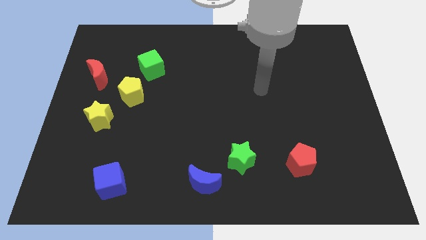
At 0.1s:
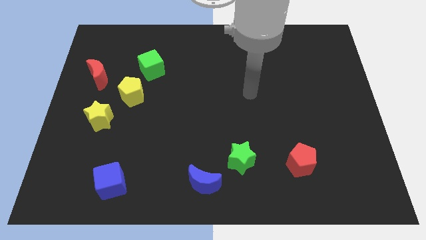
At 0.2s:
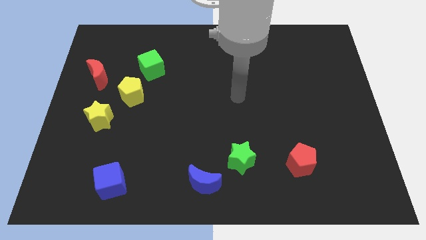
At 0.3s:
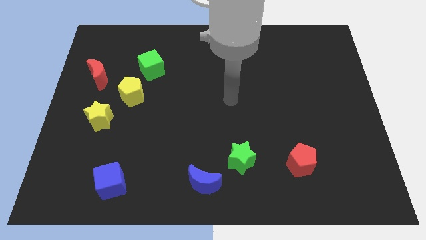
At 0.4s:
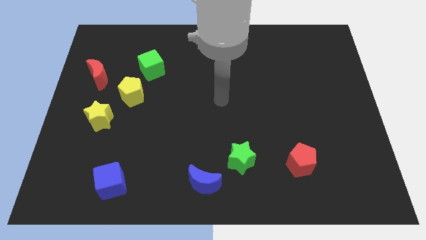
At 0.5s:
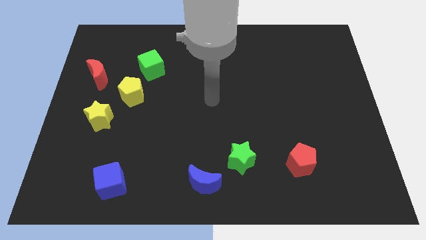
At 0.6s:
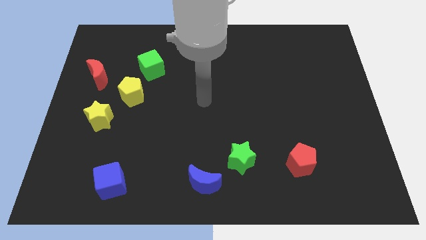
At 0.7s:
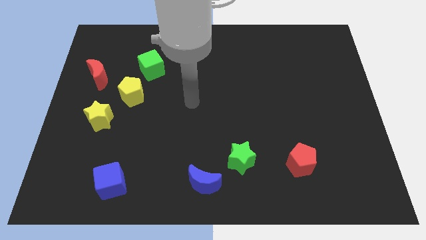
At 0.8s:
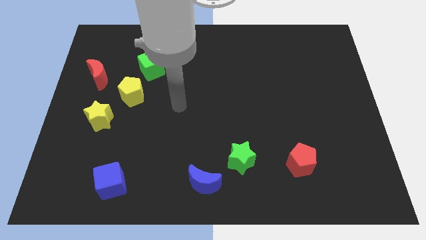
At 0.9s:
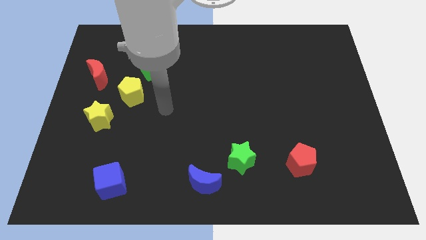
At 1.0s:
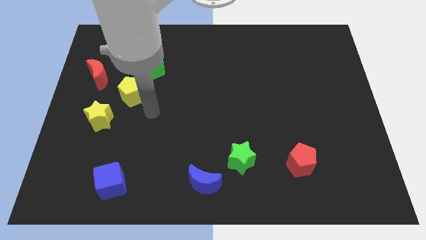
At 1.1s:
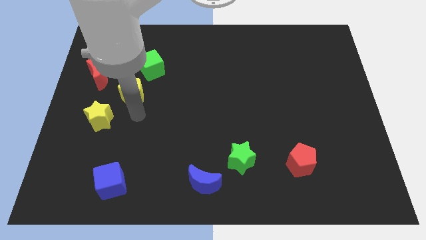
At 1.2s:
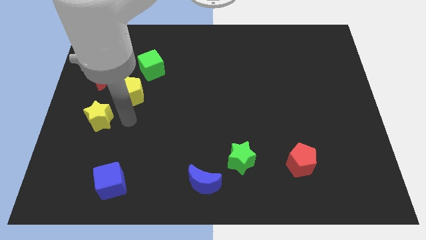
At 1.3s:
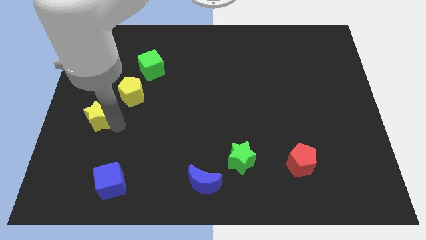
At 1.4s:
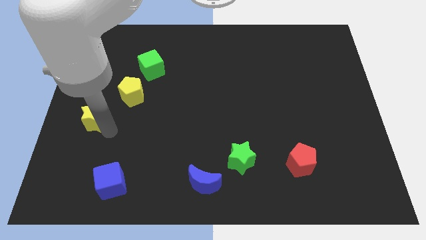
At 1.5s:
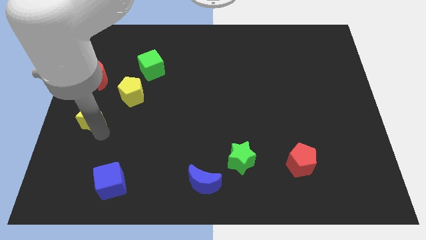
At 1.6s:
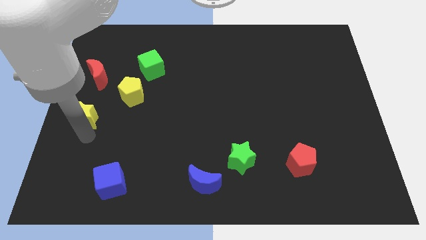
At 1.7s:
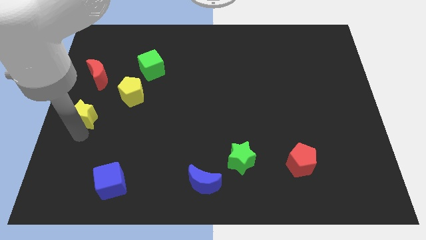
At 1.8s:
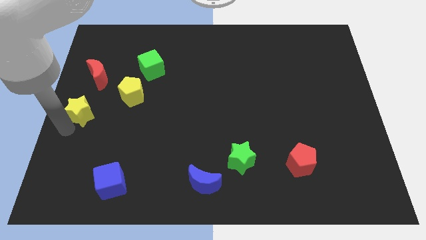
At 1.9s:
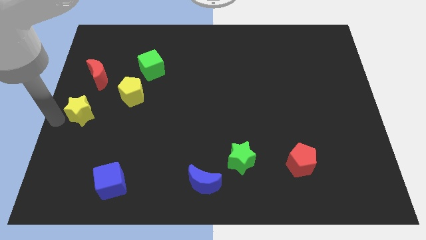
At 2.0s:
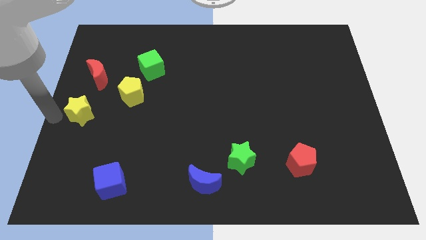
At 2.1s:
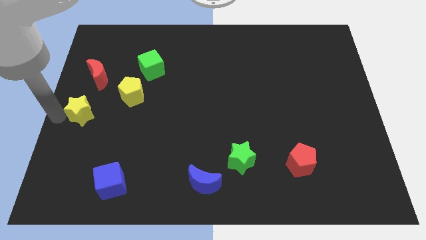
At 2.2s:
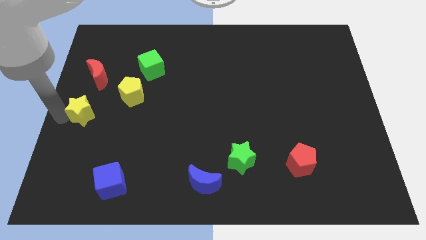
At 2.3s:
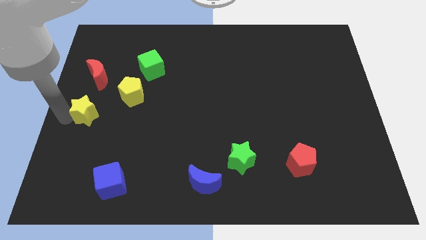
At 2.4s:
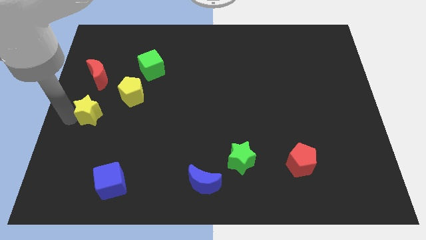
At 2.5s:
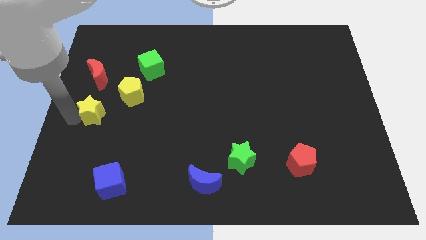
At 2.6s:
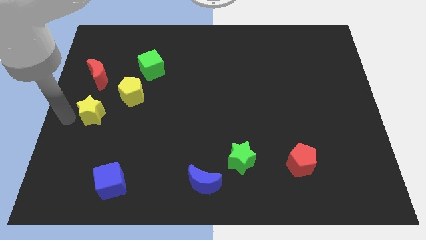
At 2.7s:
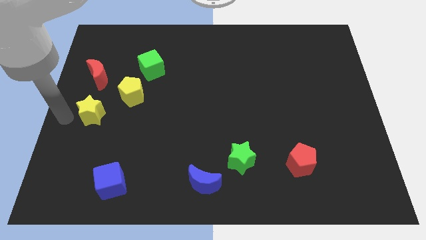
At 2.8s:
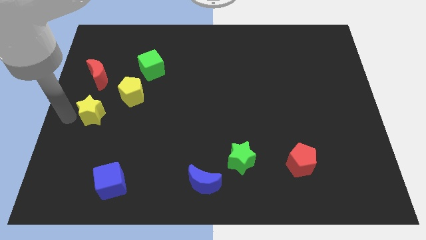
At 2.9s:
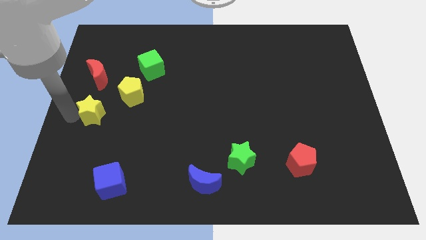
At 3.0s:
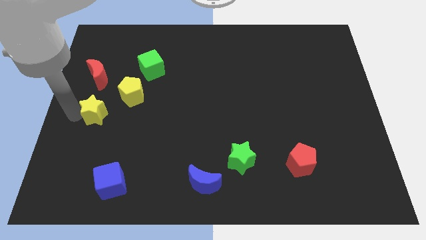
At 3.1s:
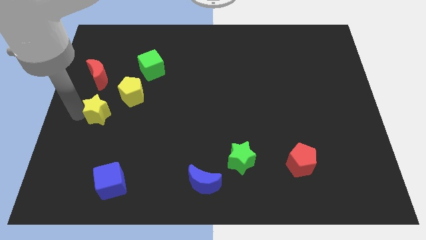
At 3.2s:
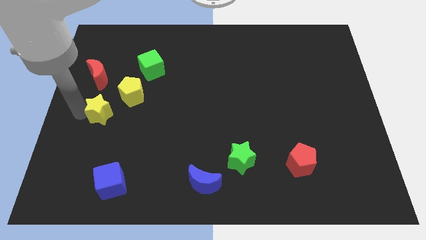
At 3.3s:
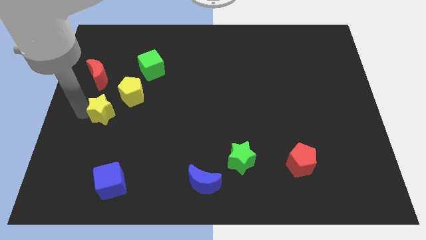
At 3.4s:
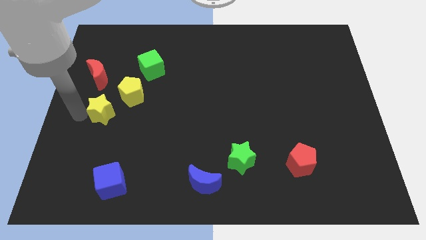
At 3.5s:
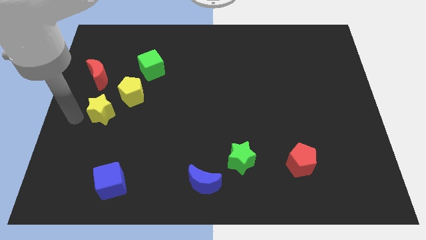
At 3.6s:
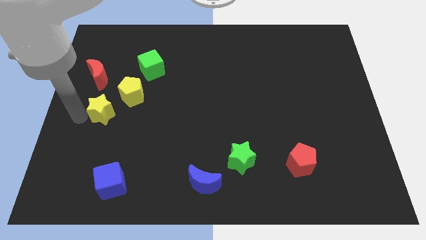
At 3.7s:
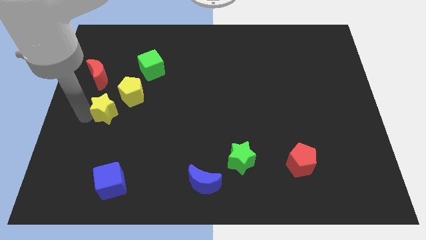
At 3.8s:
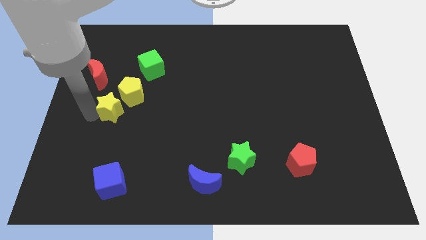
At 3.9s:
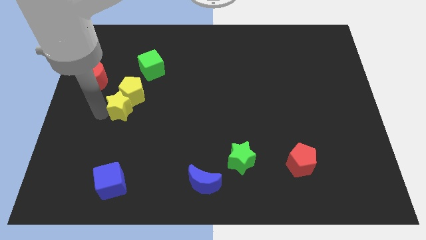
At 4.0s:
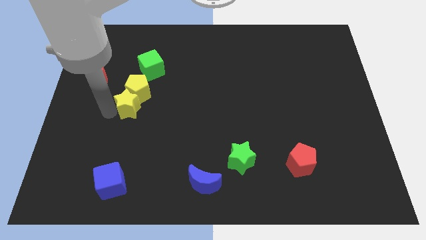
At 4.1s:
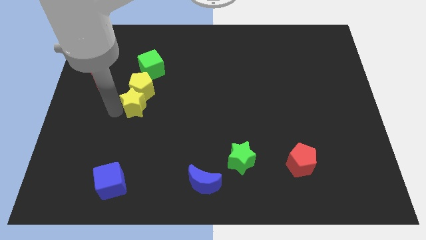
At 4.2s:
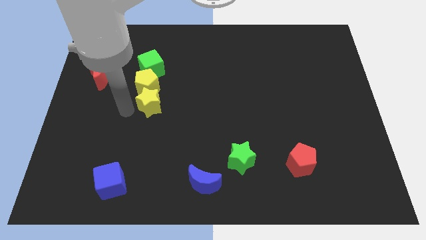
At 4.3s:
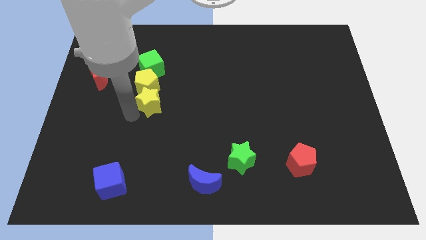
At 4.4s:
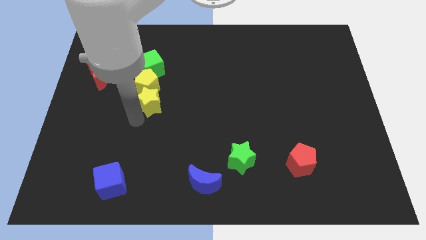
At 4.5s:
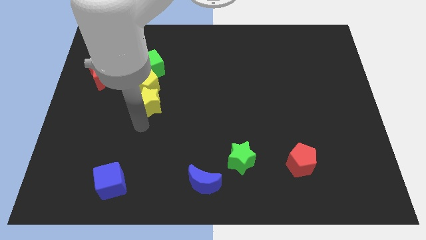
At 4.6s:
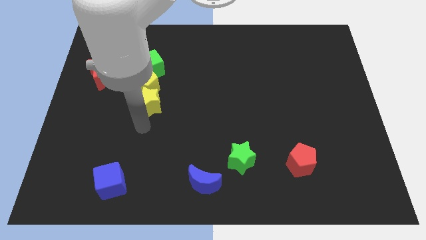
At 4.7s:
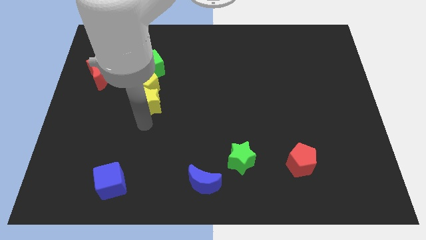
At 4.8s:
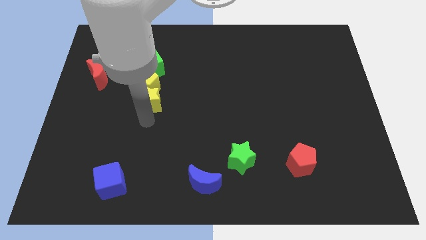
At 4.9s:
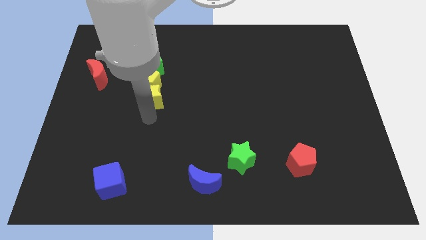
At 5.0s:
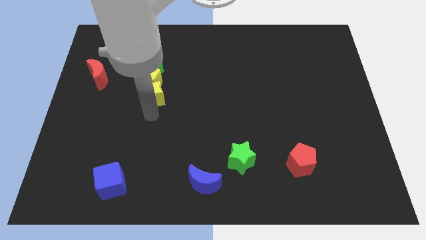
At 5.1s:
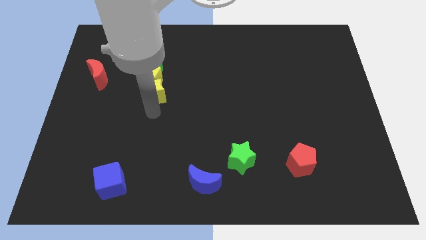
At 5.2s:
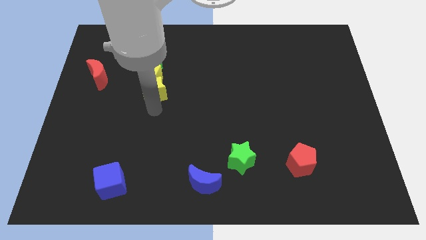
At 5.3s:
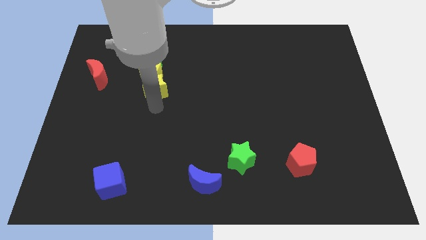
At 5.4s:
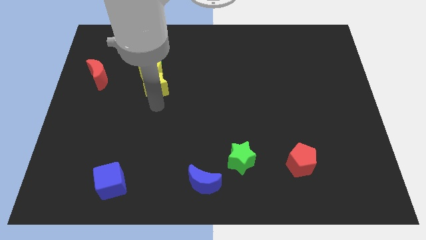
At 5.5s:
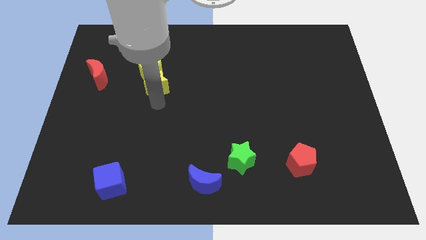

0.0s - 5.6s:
put the yellow star to the right of the red moon

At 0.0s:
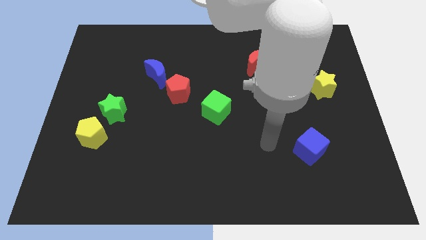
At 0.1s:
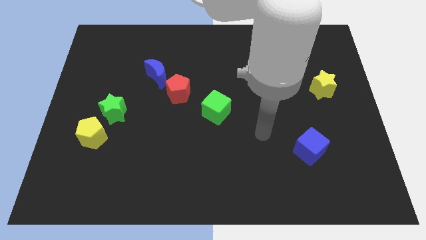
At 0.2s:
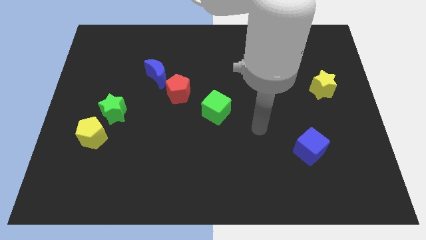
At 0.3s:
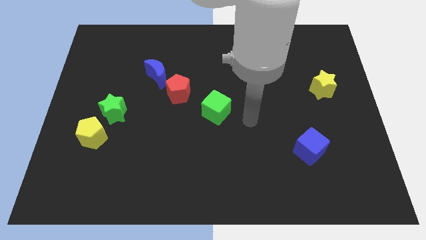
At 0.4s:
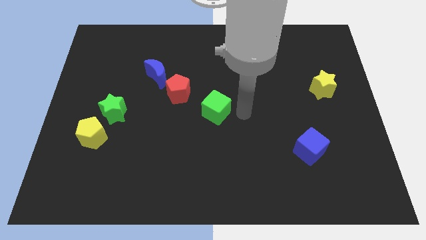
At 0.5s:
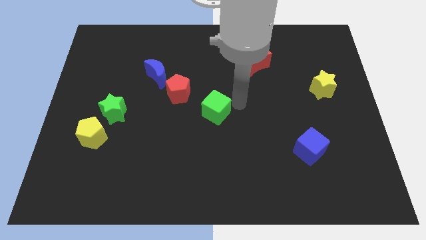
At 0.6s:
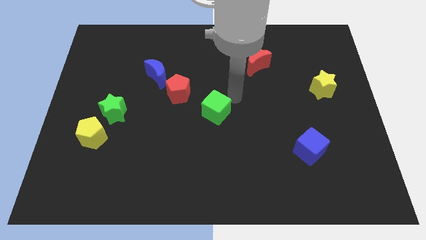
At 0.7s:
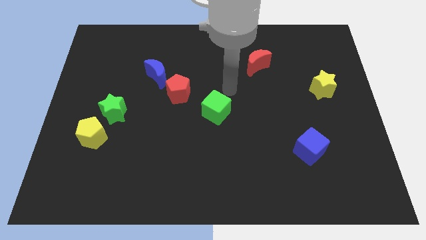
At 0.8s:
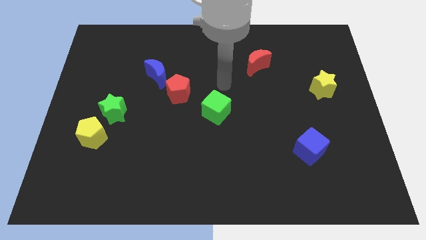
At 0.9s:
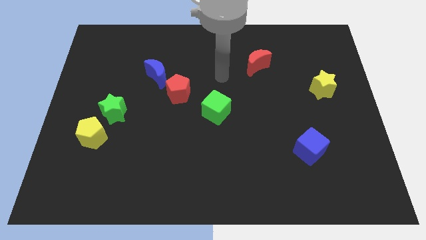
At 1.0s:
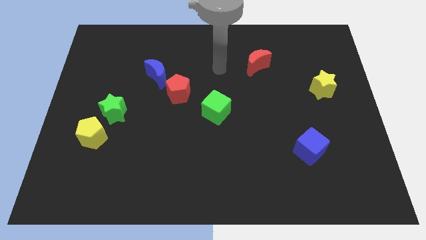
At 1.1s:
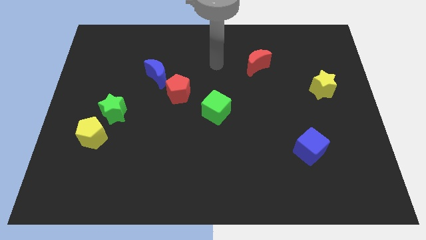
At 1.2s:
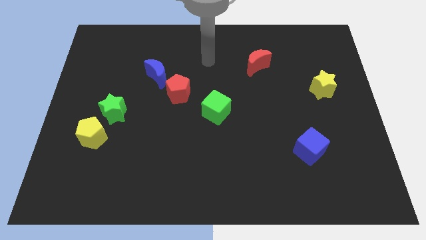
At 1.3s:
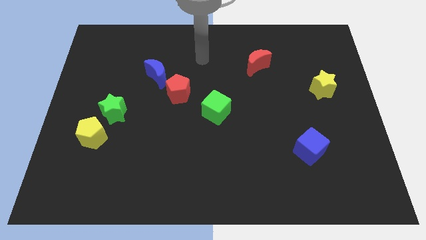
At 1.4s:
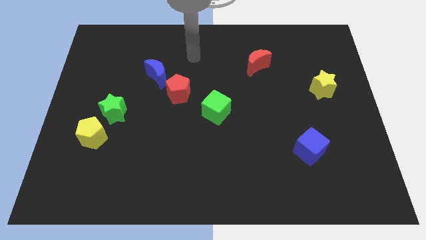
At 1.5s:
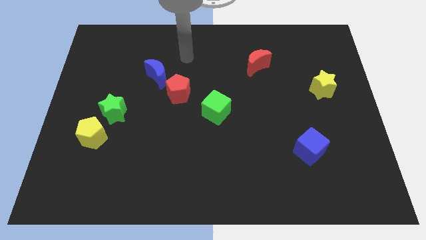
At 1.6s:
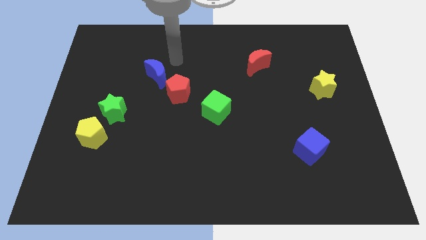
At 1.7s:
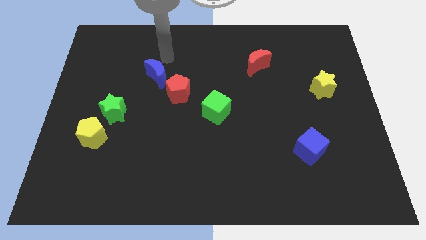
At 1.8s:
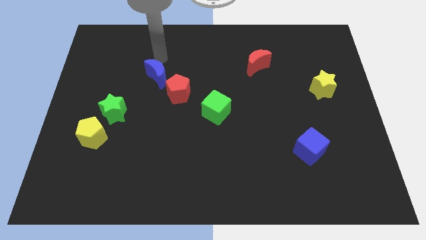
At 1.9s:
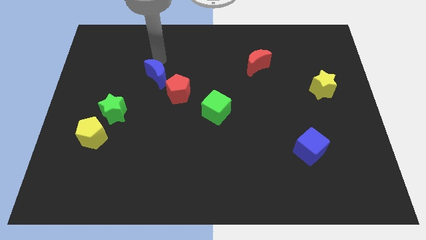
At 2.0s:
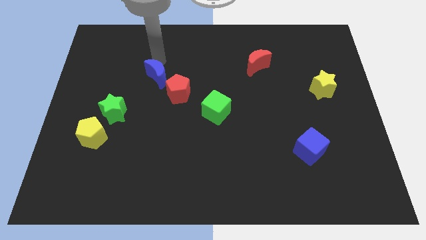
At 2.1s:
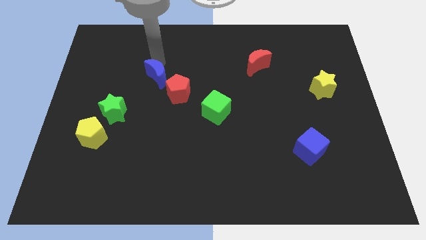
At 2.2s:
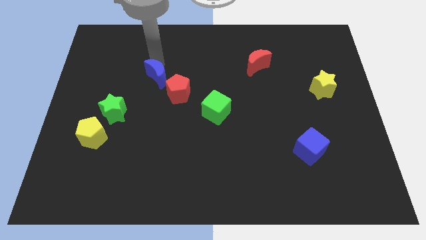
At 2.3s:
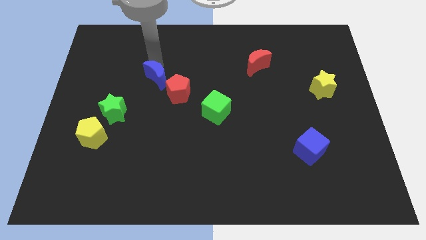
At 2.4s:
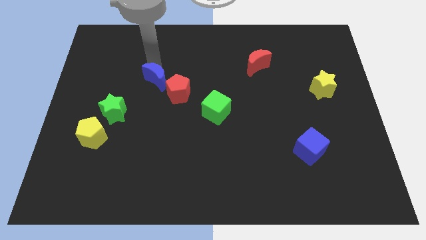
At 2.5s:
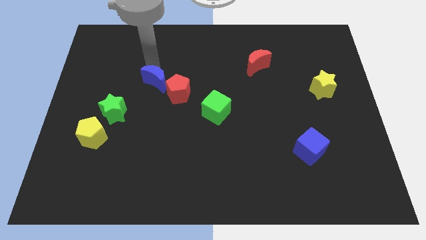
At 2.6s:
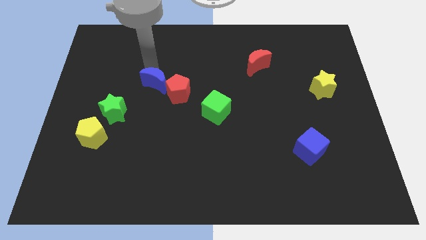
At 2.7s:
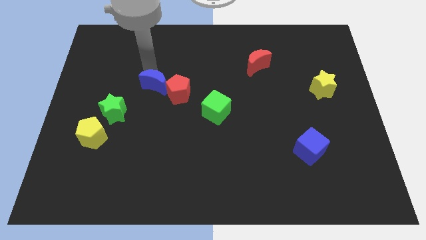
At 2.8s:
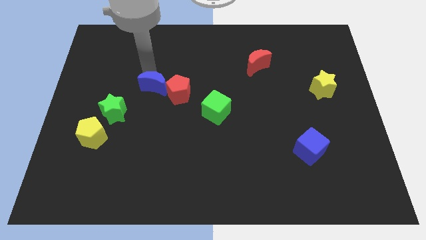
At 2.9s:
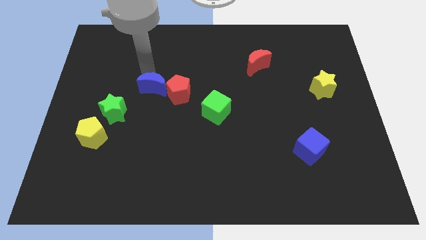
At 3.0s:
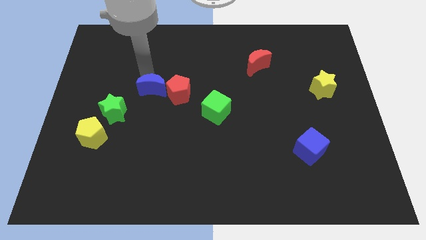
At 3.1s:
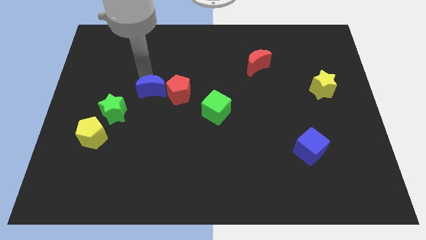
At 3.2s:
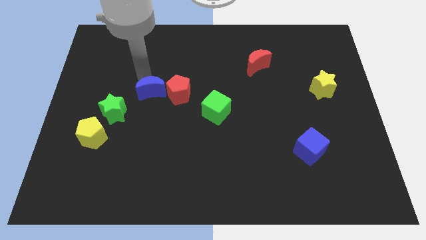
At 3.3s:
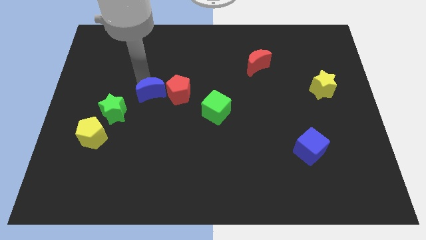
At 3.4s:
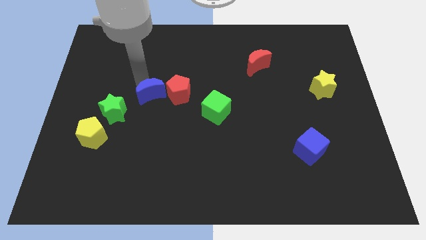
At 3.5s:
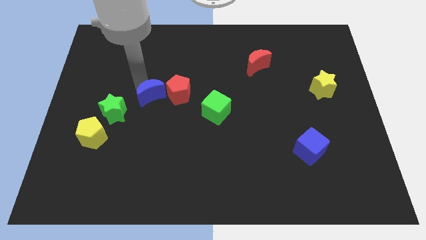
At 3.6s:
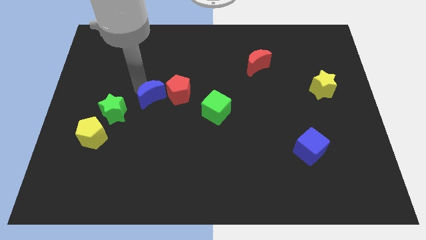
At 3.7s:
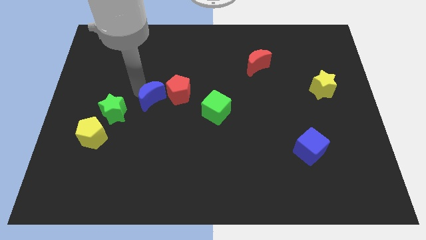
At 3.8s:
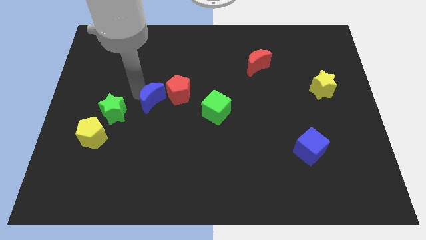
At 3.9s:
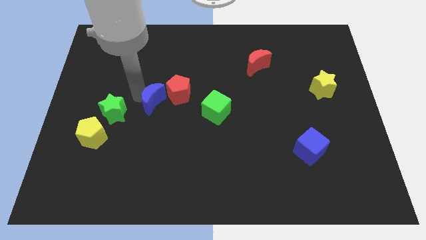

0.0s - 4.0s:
push the blue moon to the left of the green cube
